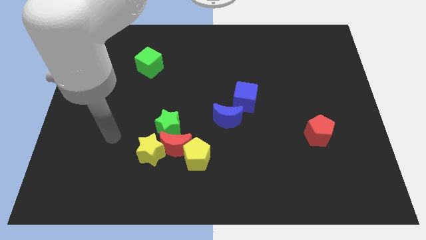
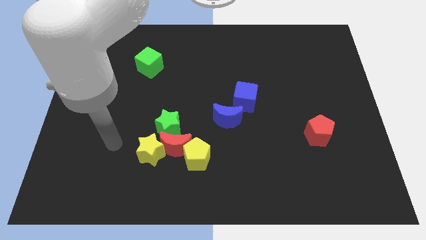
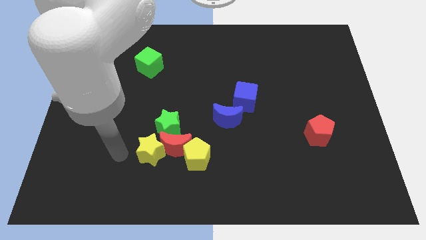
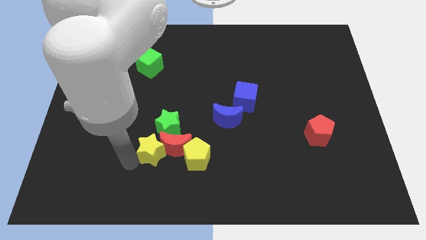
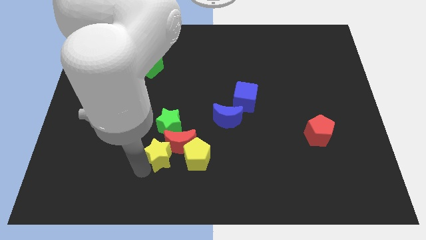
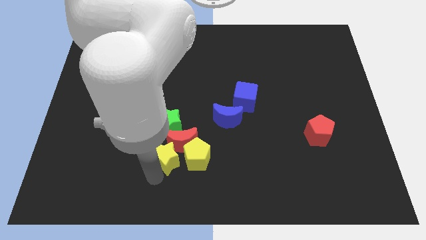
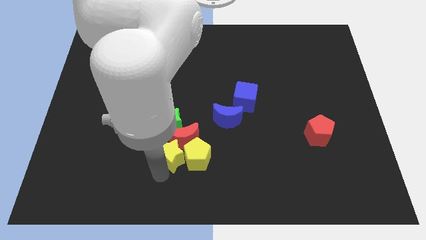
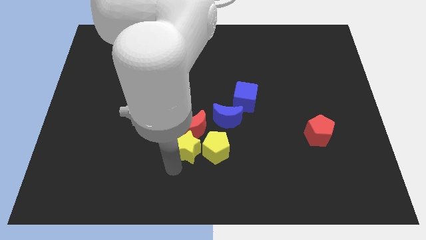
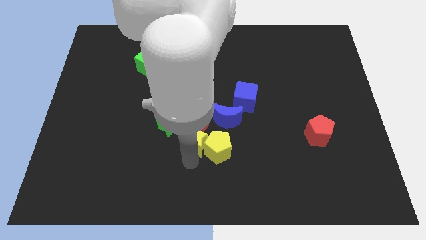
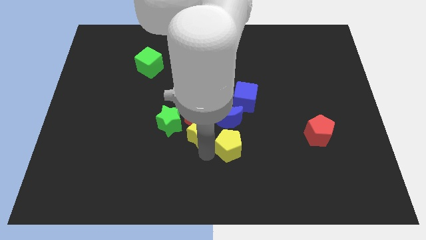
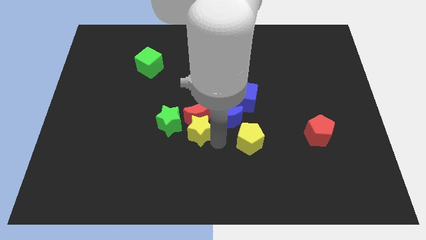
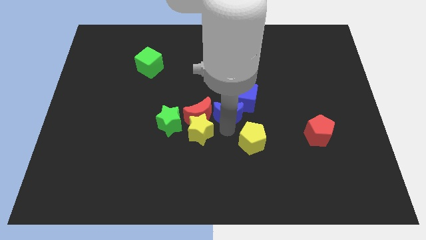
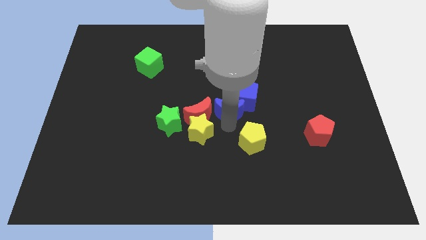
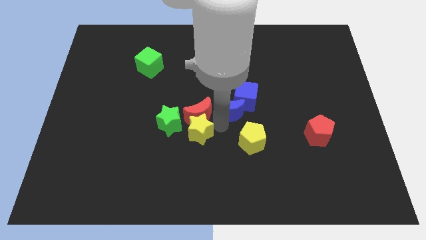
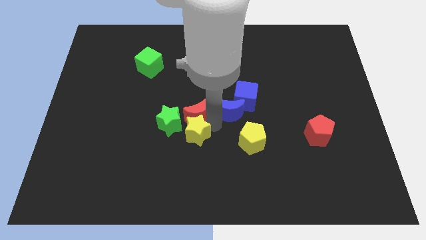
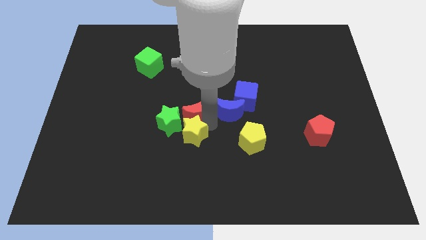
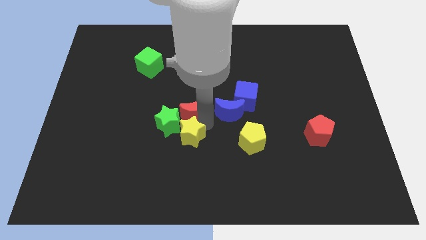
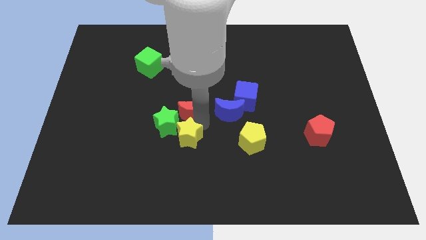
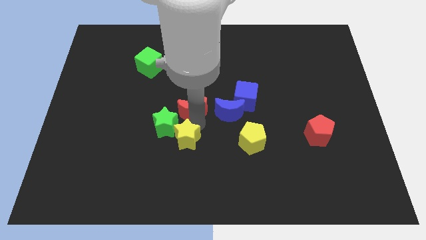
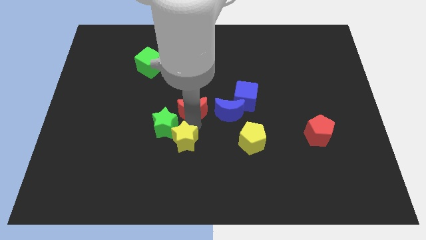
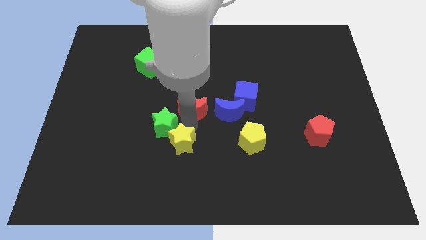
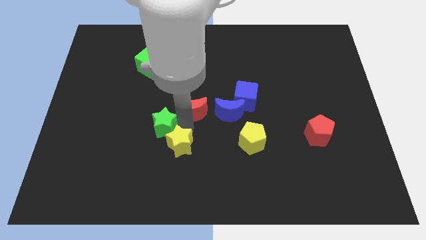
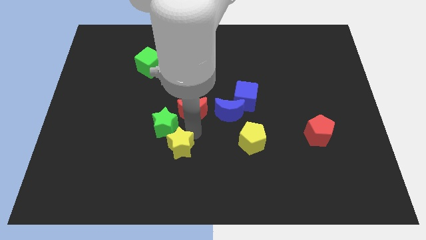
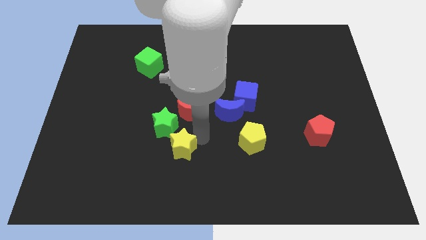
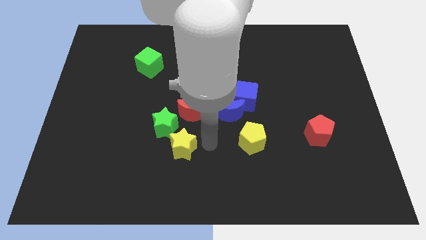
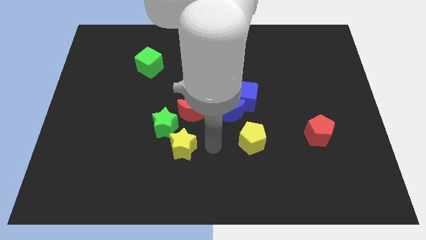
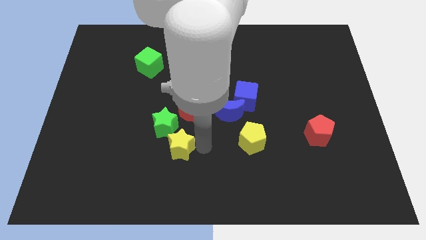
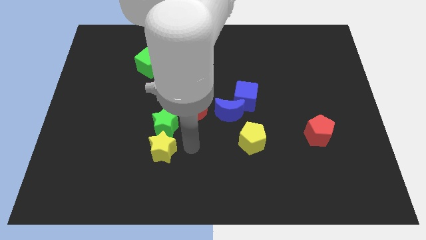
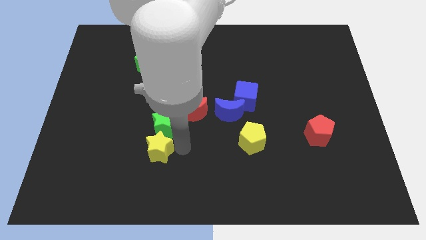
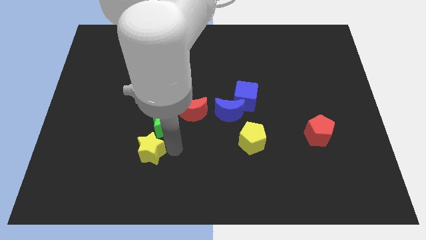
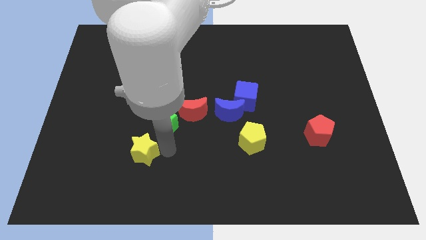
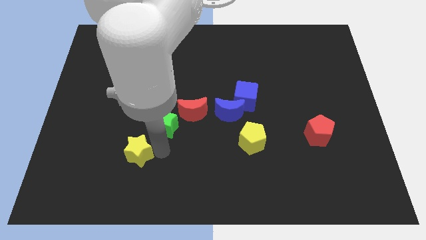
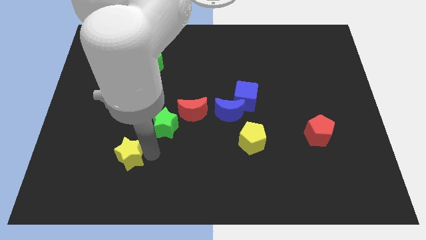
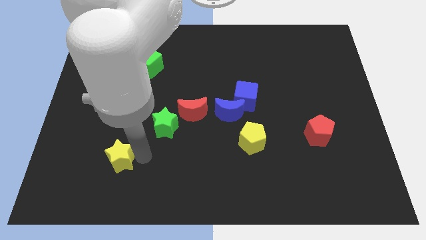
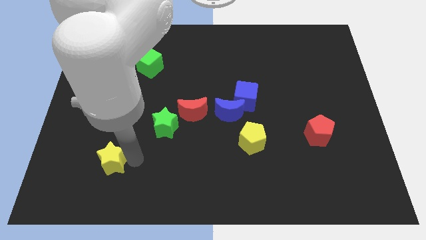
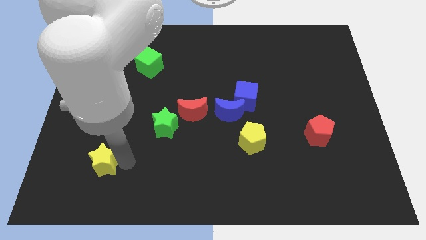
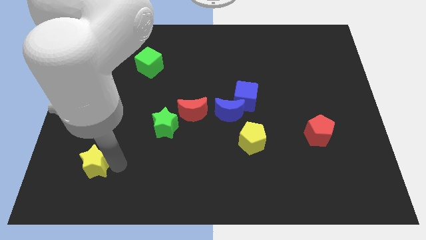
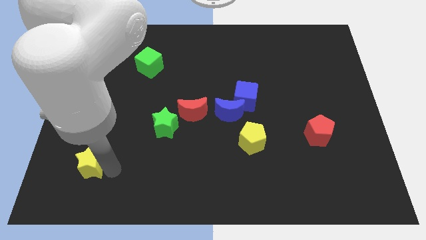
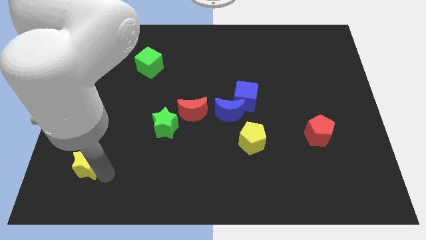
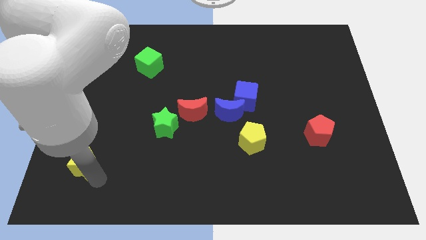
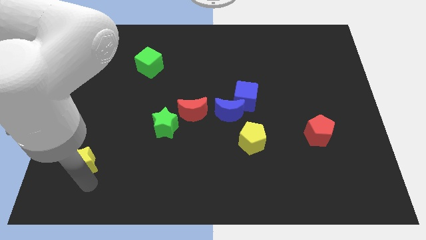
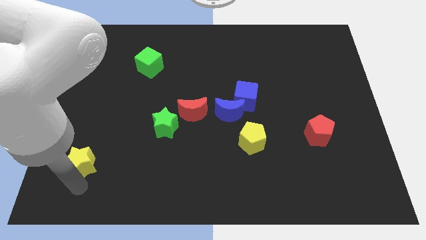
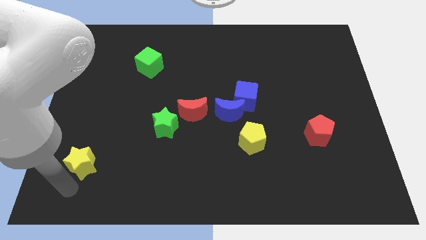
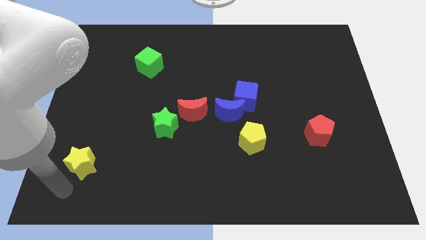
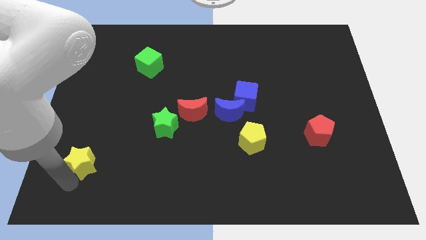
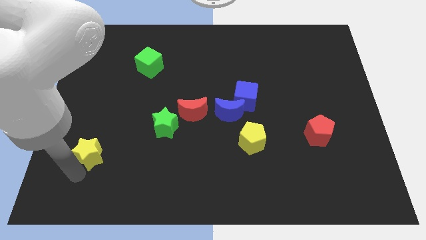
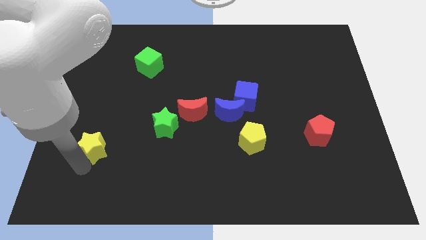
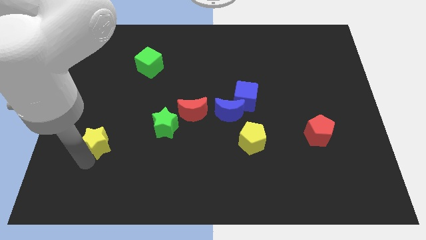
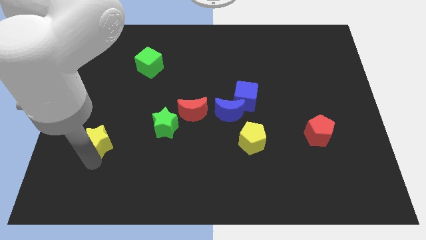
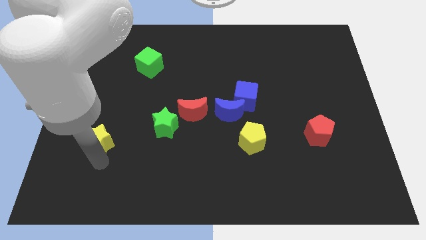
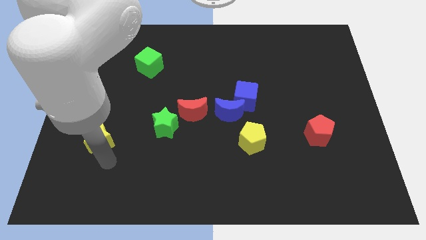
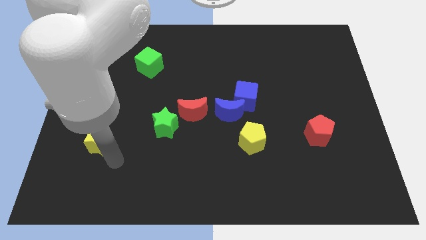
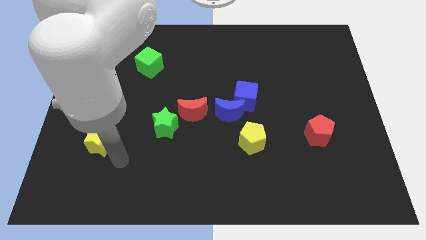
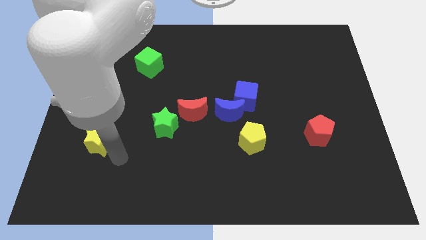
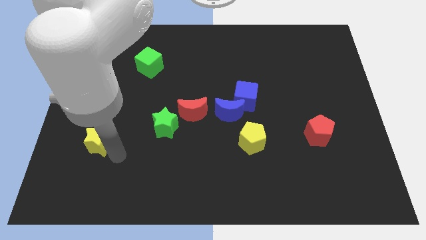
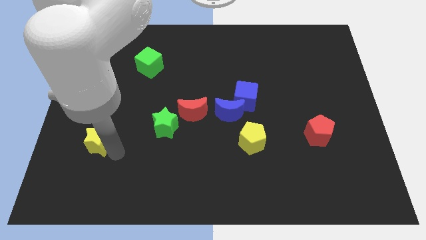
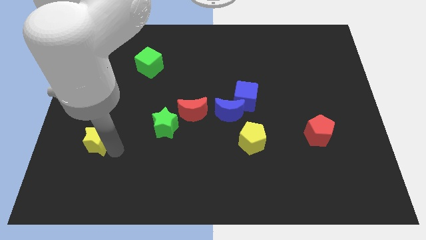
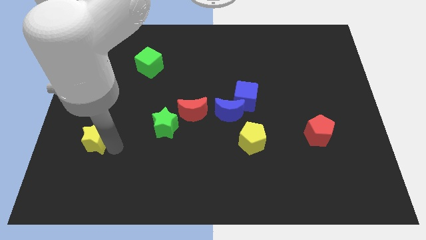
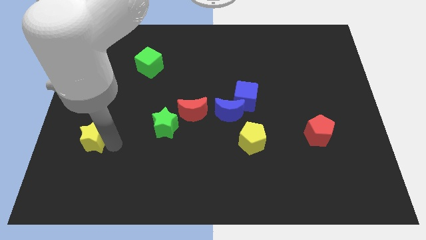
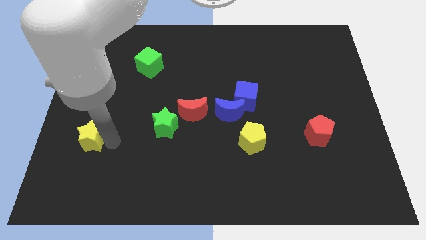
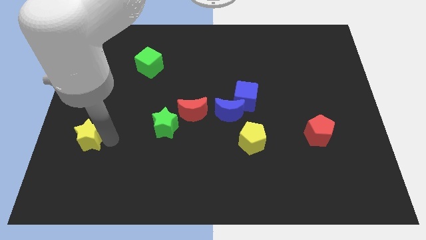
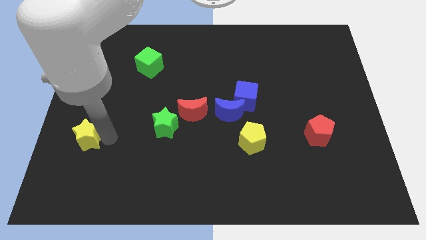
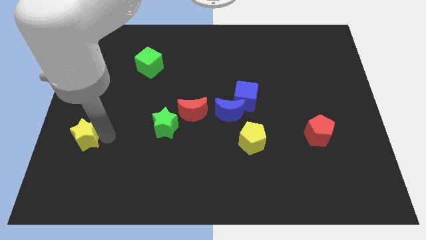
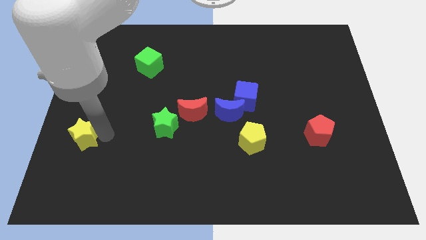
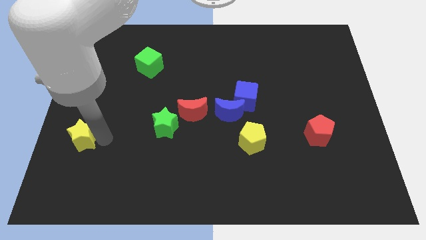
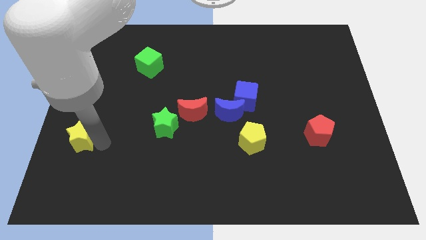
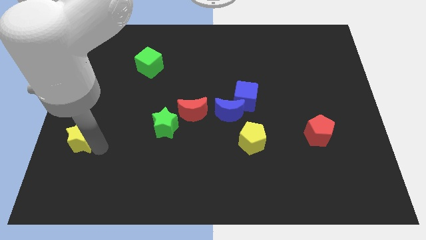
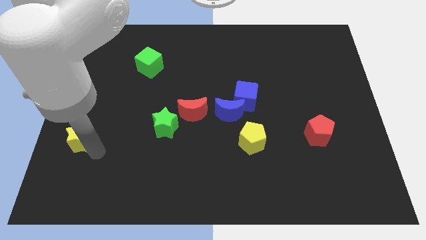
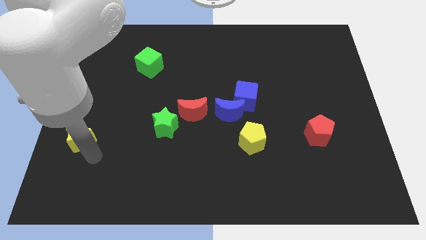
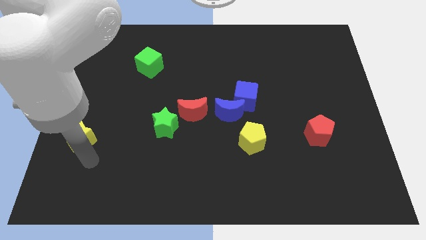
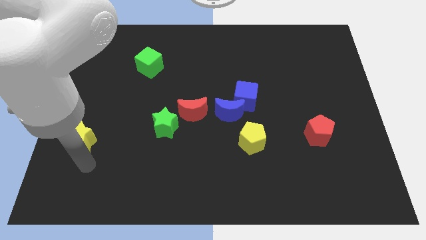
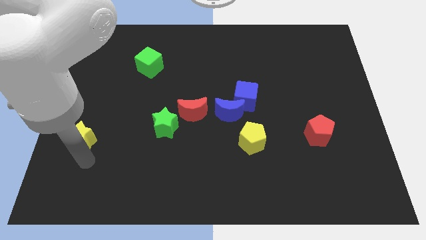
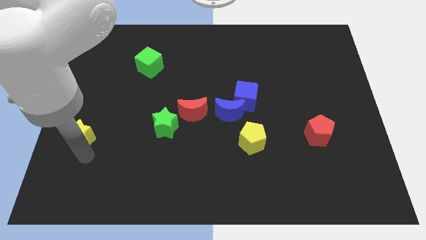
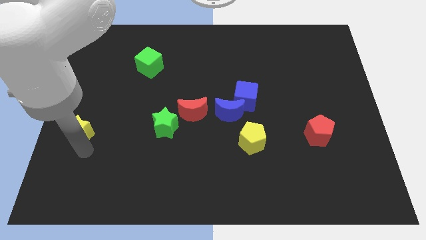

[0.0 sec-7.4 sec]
put the yellow star to the left side
